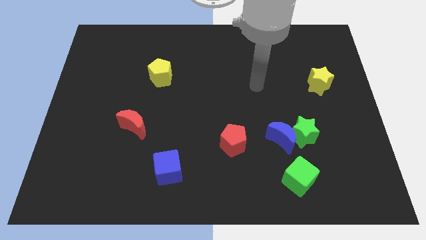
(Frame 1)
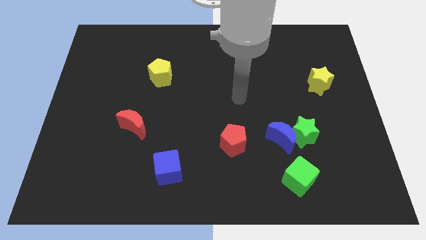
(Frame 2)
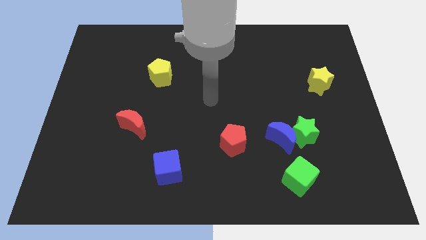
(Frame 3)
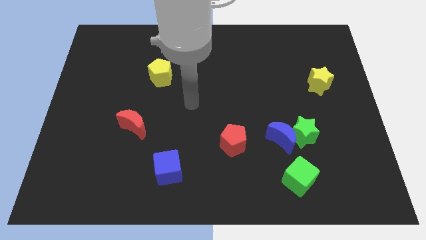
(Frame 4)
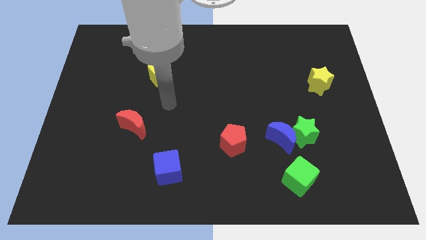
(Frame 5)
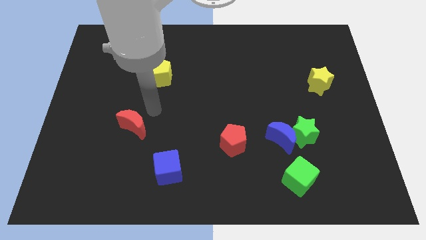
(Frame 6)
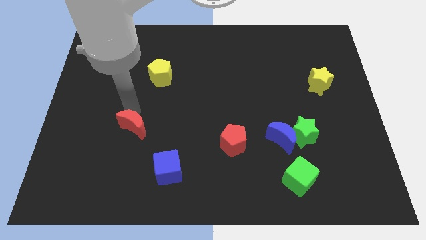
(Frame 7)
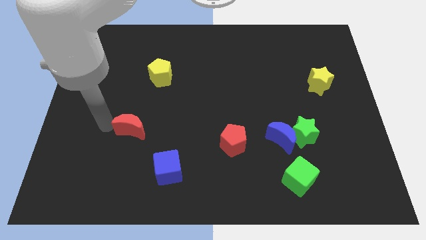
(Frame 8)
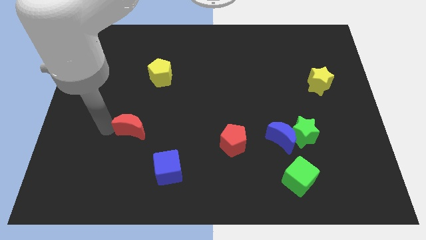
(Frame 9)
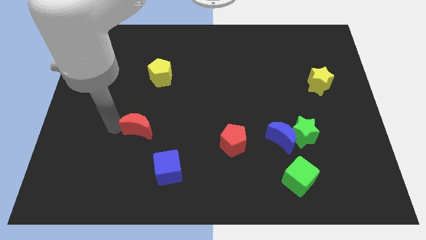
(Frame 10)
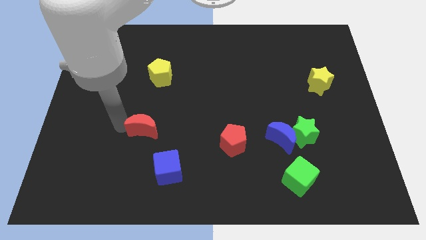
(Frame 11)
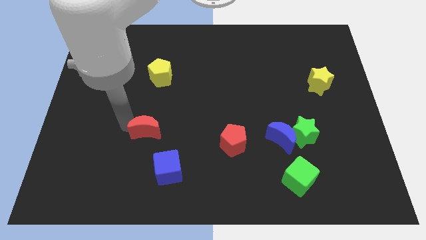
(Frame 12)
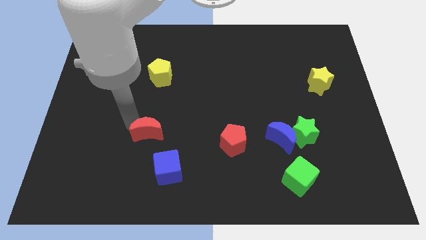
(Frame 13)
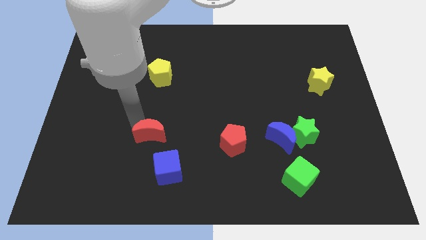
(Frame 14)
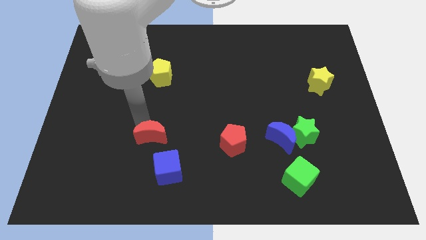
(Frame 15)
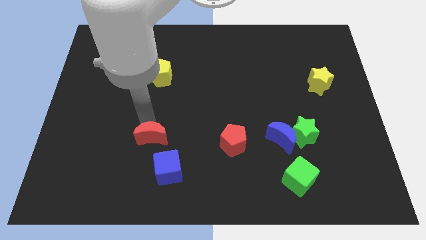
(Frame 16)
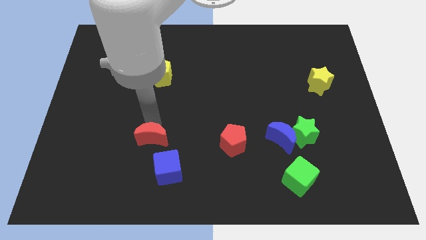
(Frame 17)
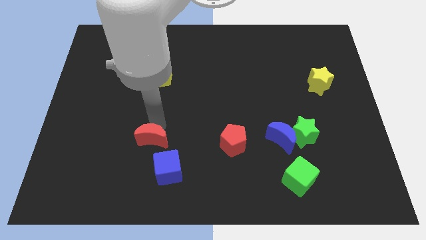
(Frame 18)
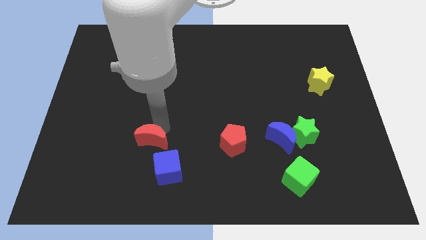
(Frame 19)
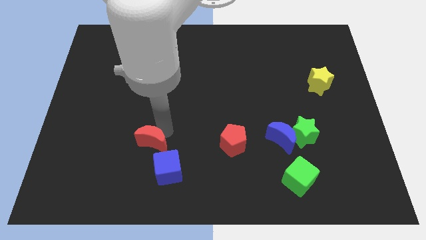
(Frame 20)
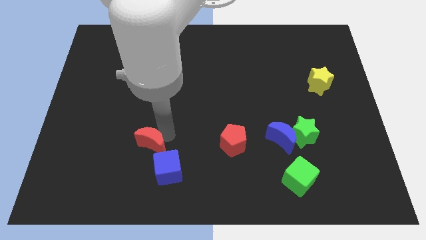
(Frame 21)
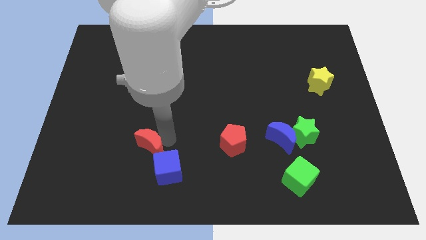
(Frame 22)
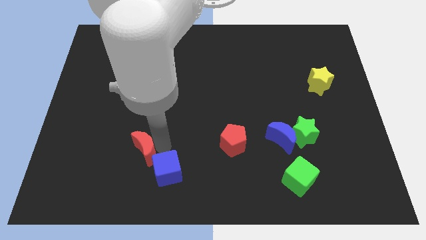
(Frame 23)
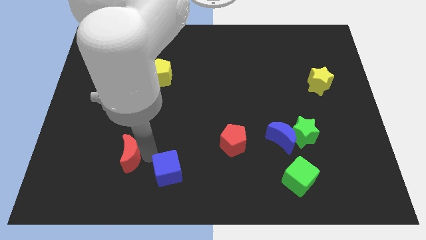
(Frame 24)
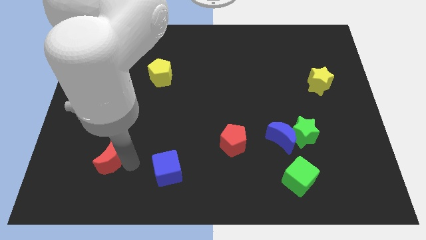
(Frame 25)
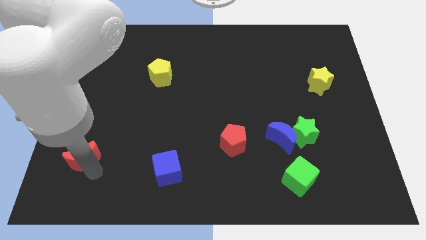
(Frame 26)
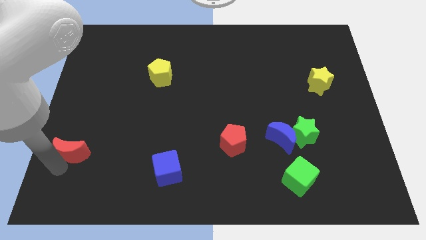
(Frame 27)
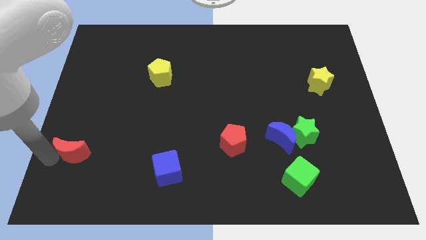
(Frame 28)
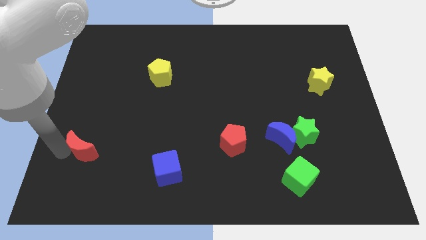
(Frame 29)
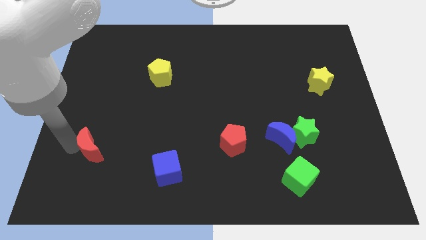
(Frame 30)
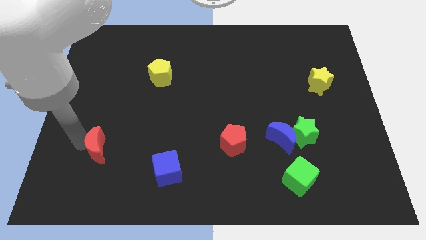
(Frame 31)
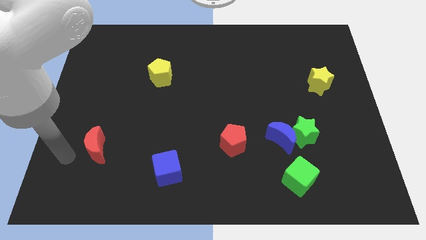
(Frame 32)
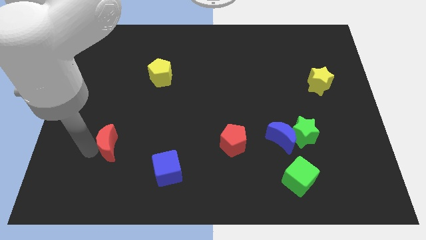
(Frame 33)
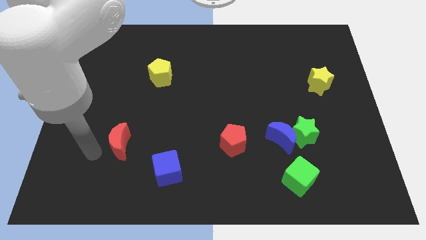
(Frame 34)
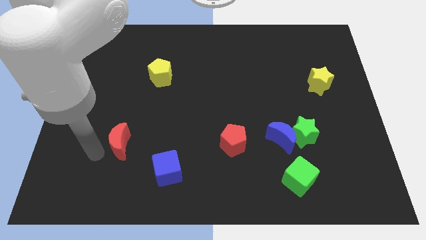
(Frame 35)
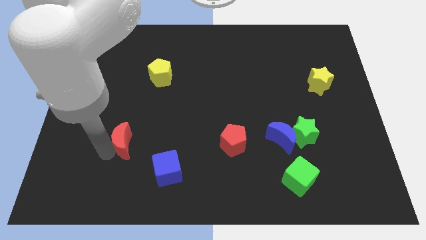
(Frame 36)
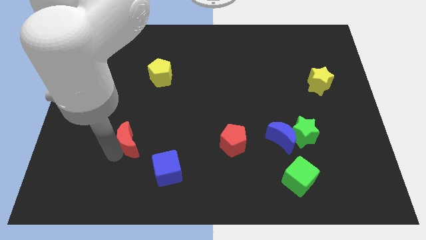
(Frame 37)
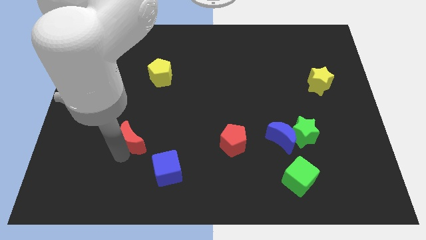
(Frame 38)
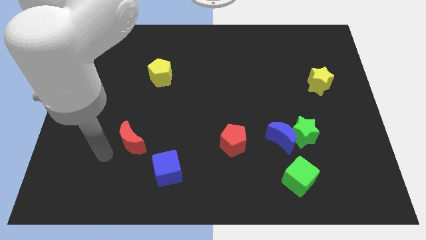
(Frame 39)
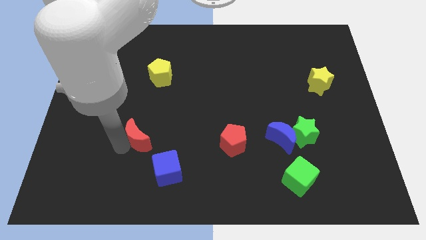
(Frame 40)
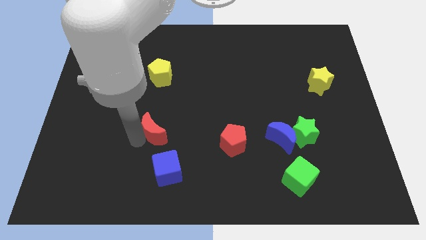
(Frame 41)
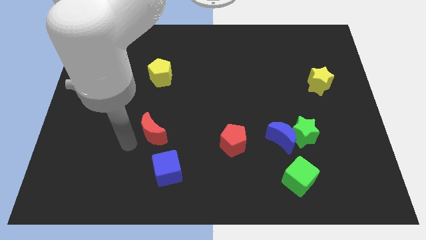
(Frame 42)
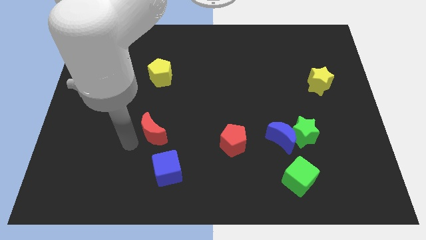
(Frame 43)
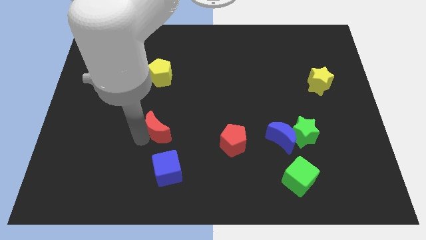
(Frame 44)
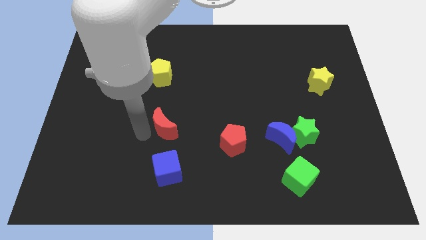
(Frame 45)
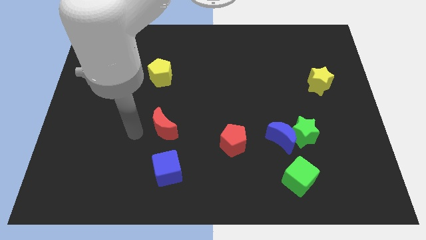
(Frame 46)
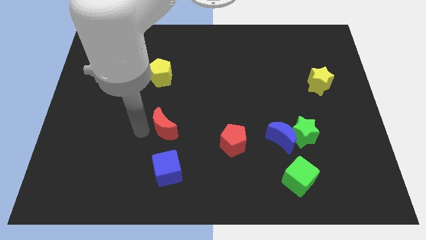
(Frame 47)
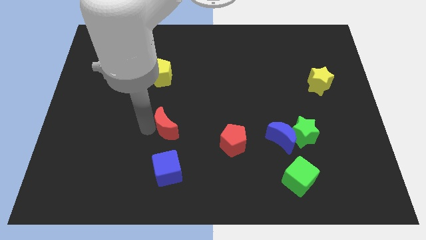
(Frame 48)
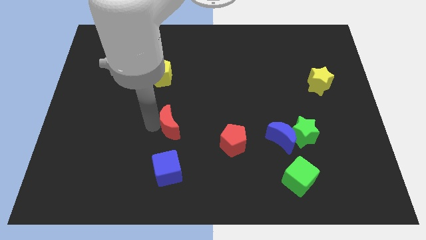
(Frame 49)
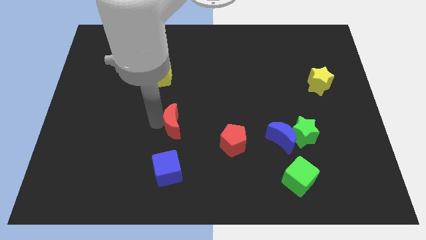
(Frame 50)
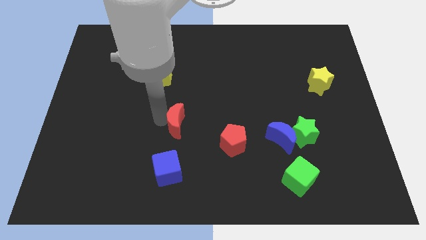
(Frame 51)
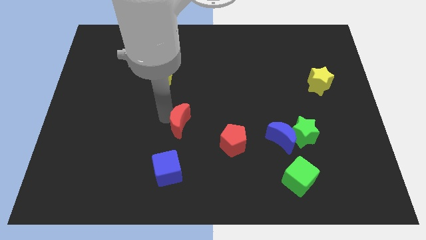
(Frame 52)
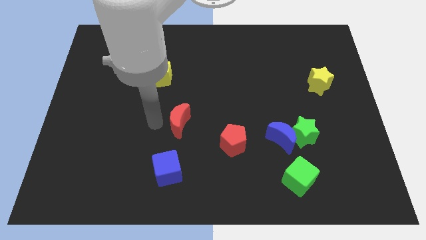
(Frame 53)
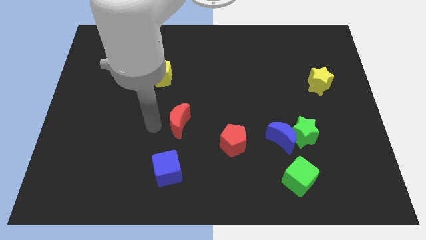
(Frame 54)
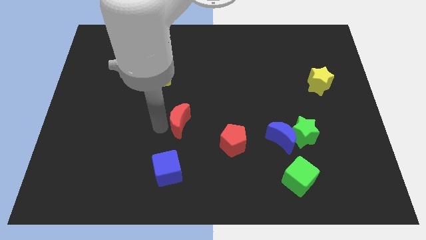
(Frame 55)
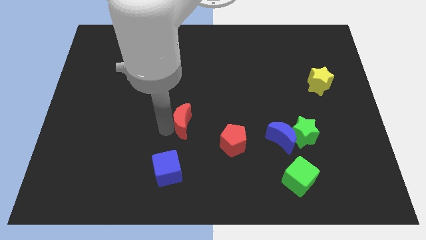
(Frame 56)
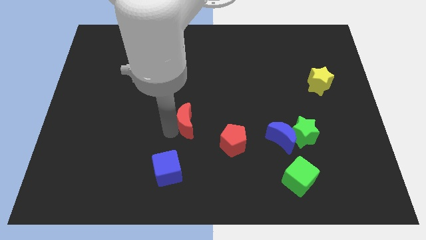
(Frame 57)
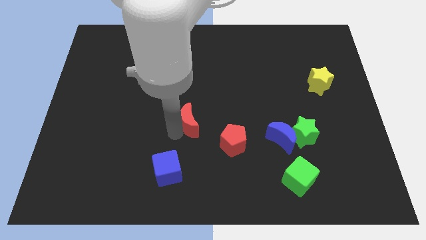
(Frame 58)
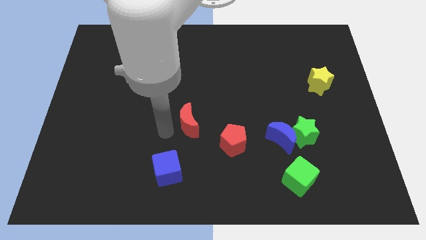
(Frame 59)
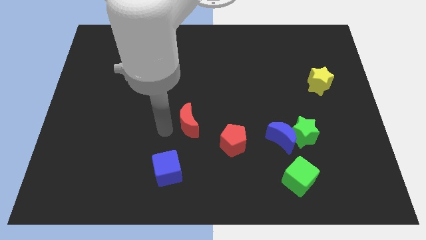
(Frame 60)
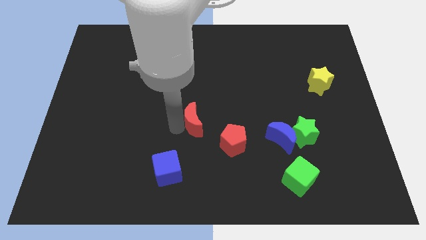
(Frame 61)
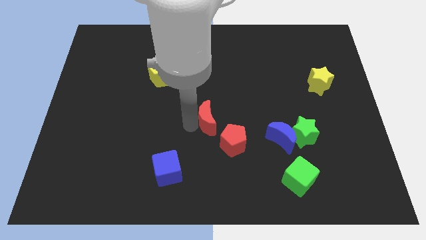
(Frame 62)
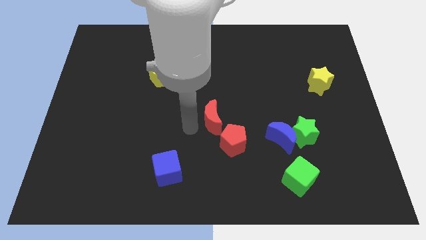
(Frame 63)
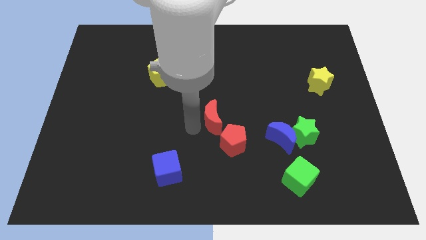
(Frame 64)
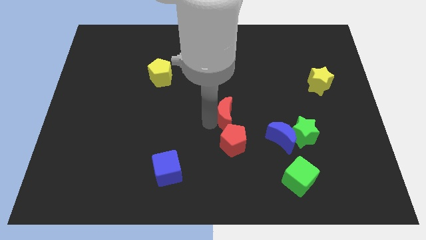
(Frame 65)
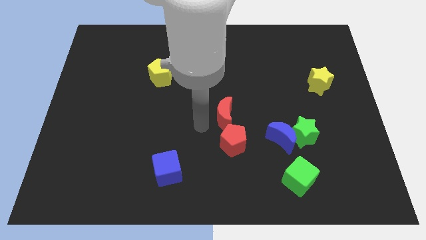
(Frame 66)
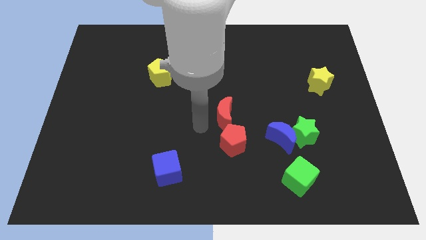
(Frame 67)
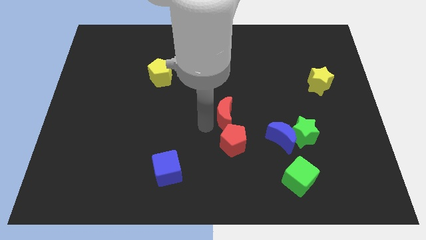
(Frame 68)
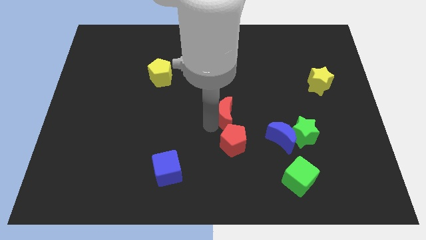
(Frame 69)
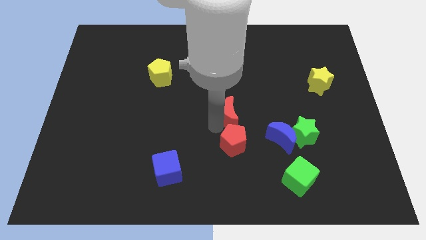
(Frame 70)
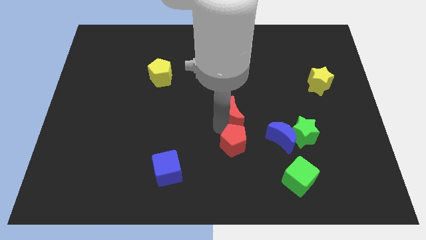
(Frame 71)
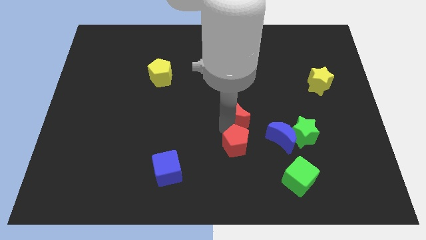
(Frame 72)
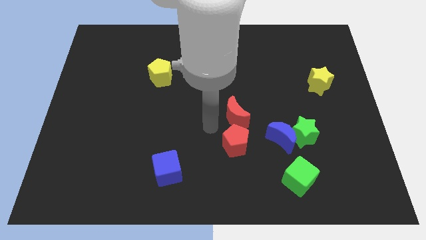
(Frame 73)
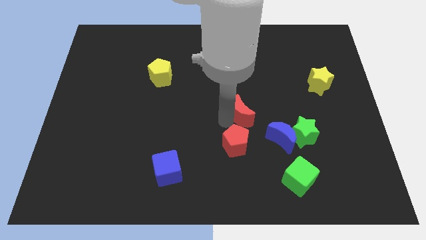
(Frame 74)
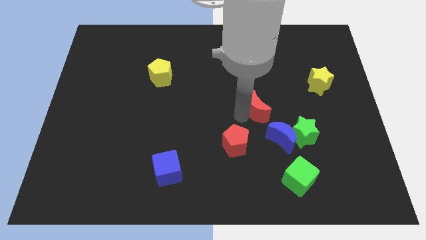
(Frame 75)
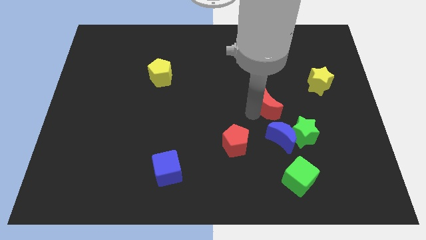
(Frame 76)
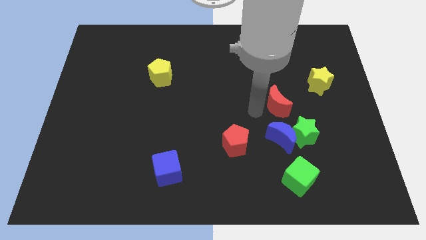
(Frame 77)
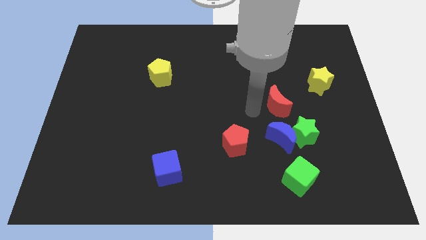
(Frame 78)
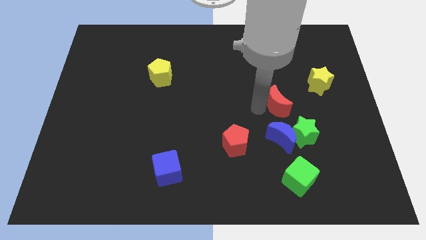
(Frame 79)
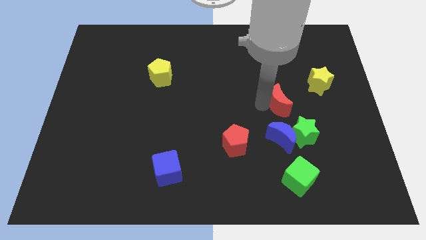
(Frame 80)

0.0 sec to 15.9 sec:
push the red moon to the bottom left of the yellow star
